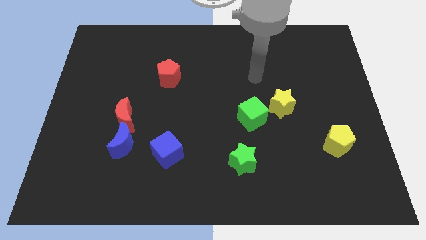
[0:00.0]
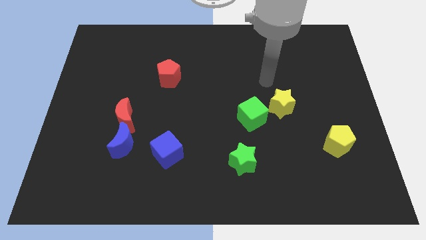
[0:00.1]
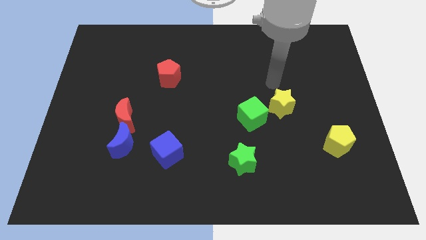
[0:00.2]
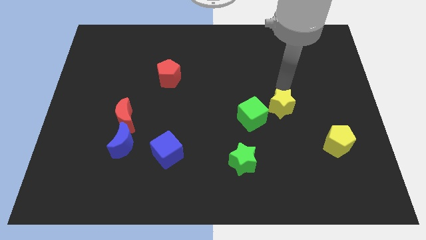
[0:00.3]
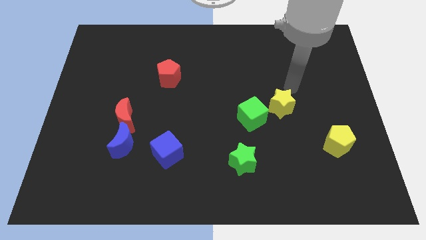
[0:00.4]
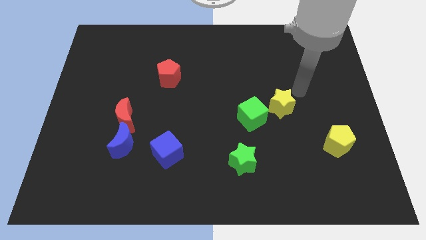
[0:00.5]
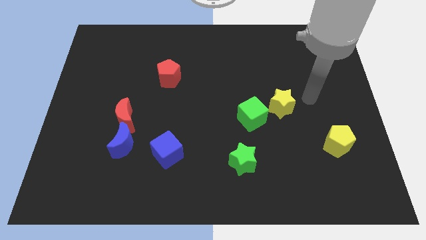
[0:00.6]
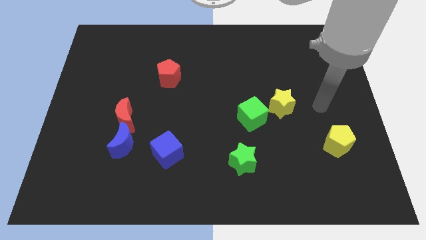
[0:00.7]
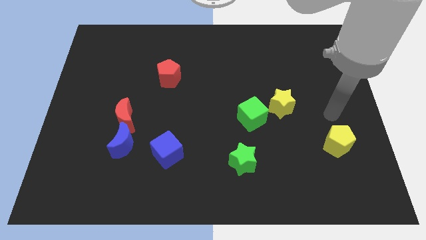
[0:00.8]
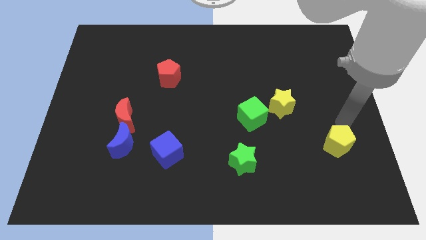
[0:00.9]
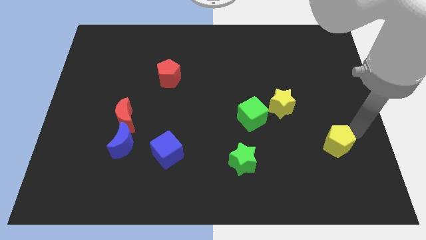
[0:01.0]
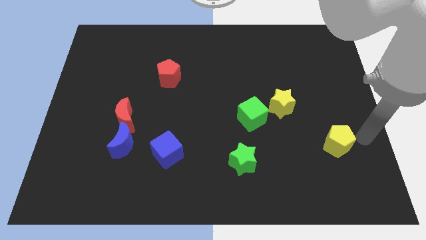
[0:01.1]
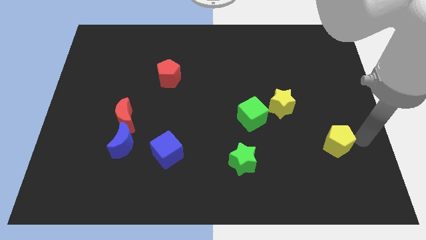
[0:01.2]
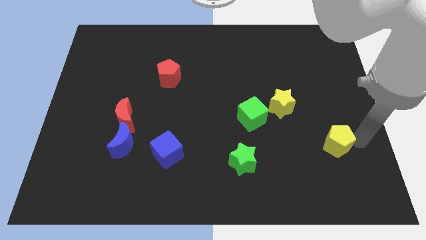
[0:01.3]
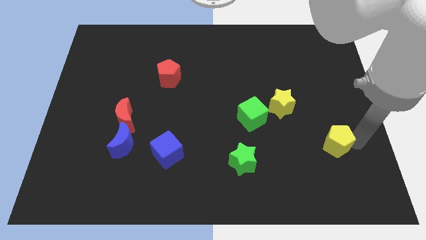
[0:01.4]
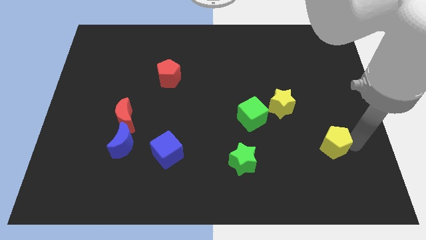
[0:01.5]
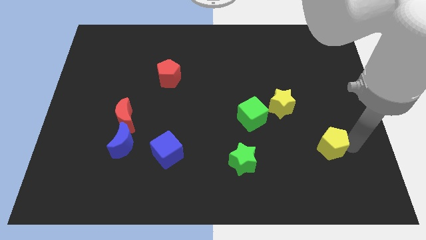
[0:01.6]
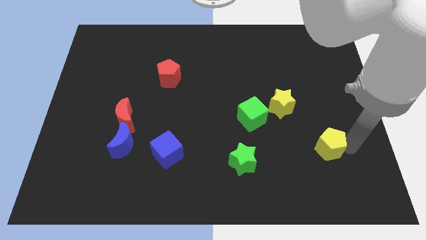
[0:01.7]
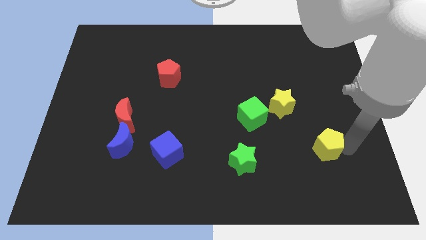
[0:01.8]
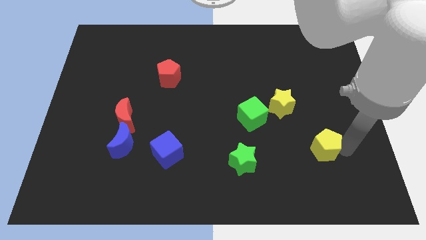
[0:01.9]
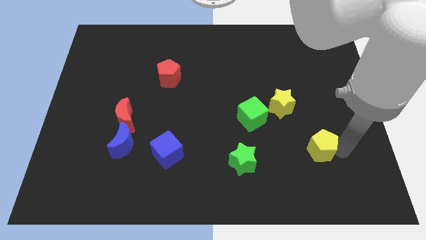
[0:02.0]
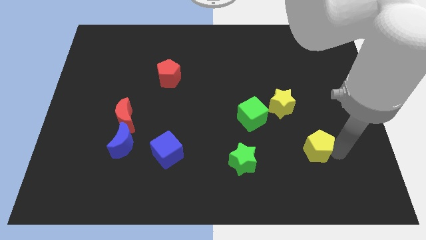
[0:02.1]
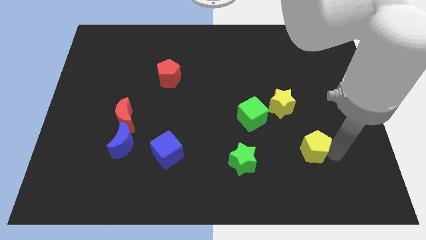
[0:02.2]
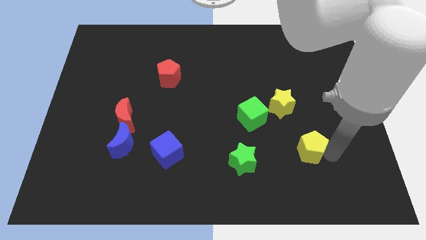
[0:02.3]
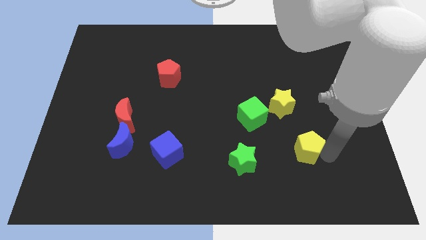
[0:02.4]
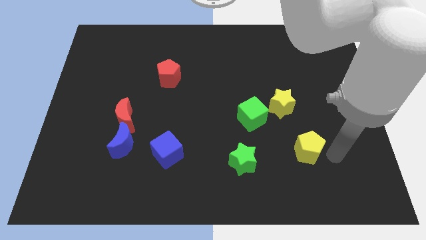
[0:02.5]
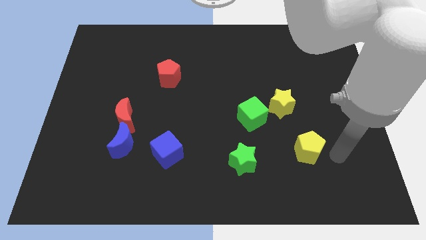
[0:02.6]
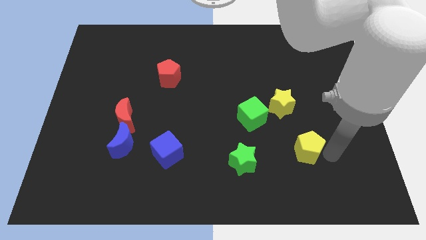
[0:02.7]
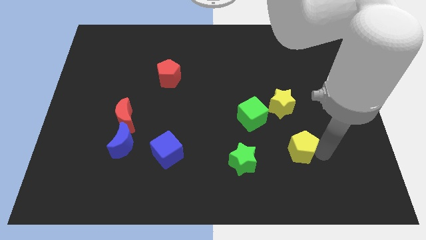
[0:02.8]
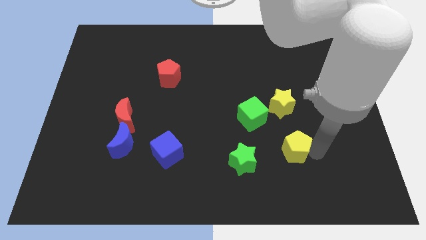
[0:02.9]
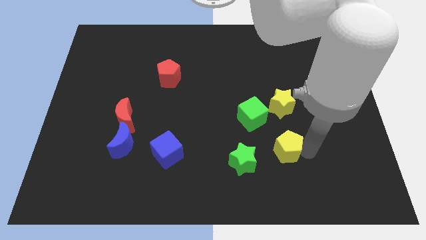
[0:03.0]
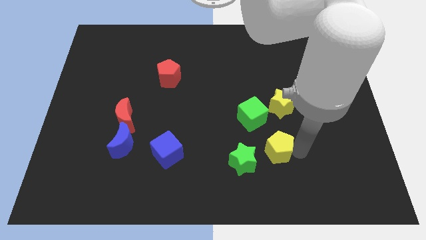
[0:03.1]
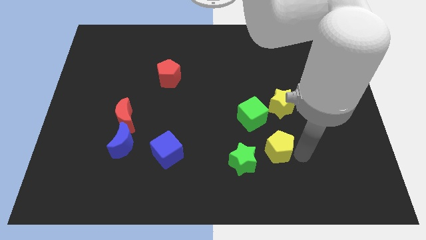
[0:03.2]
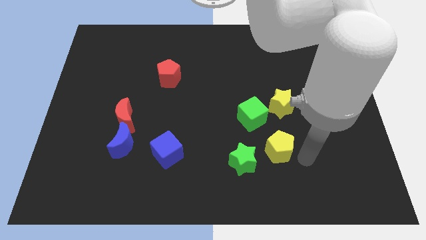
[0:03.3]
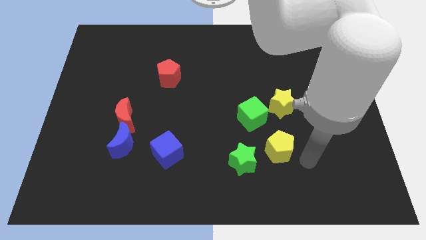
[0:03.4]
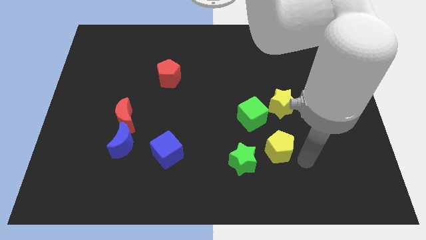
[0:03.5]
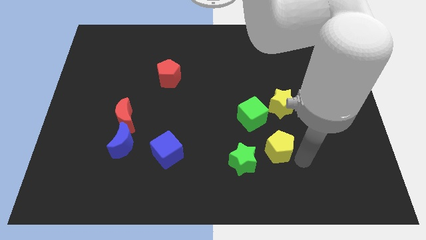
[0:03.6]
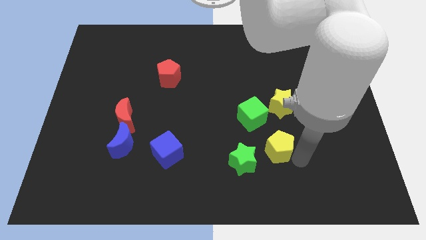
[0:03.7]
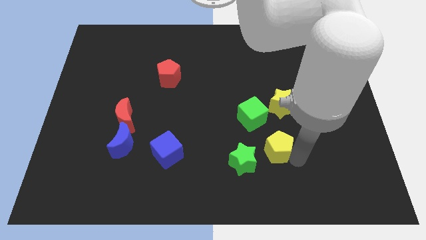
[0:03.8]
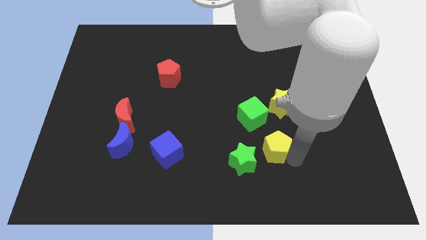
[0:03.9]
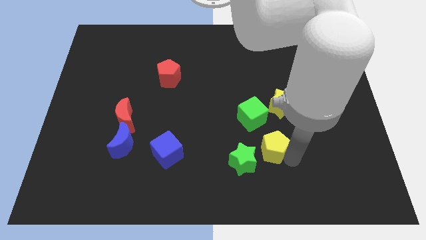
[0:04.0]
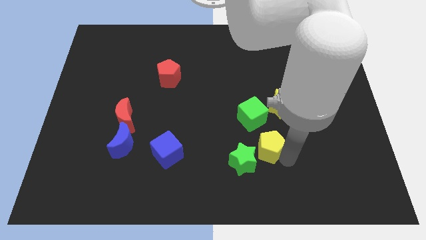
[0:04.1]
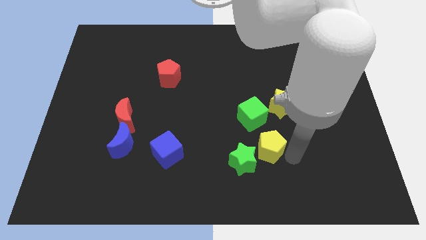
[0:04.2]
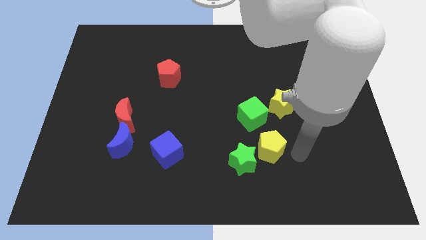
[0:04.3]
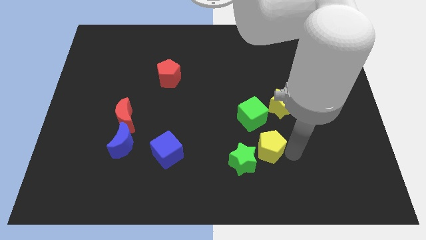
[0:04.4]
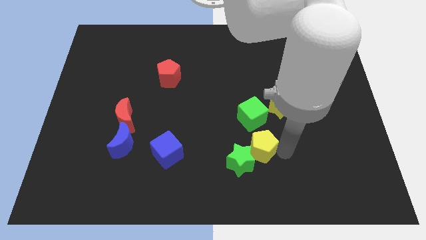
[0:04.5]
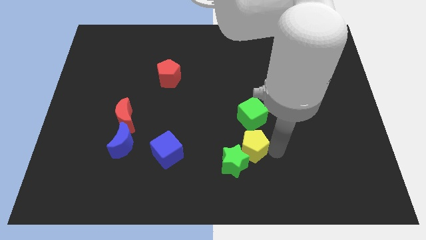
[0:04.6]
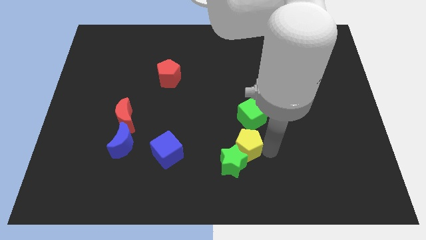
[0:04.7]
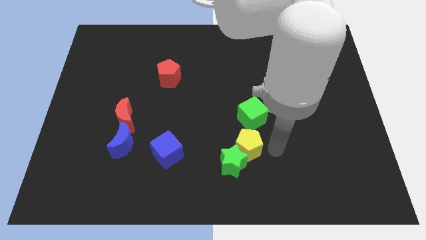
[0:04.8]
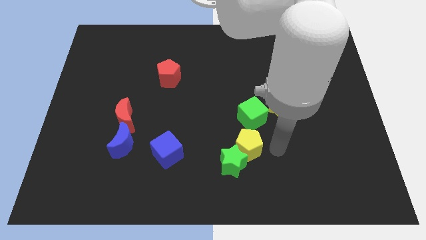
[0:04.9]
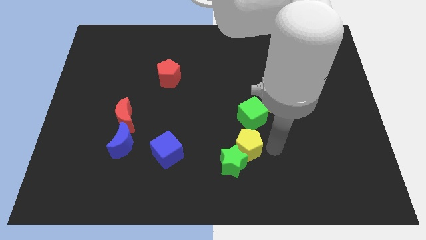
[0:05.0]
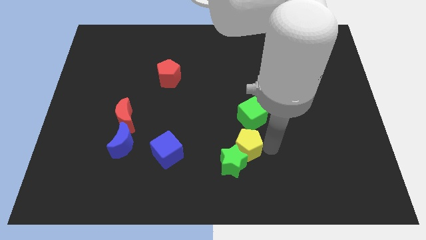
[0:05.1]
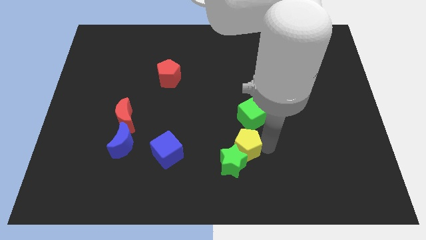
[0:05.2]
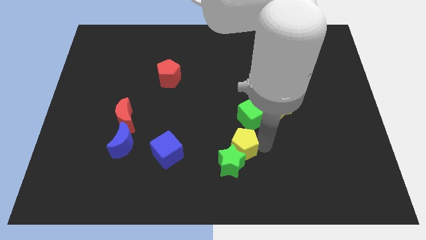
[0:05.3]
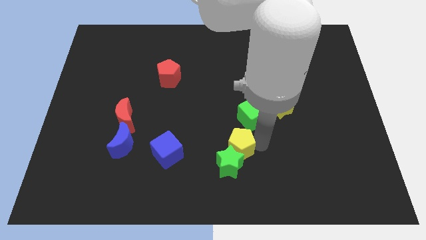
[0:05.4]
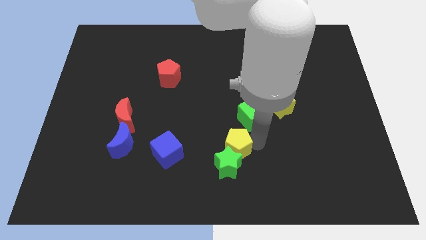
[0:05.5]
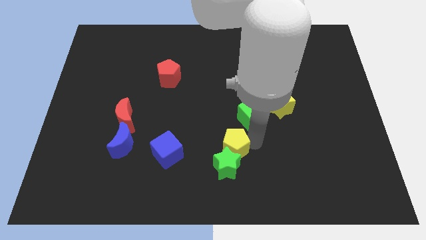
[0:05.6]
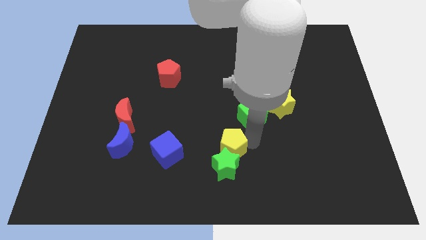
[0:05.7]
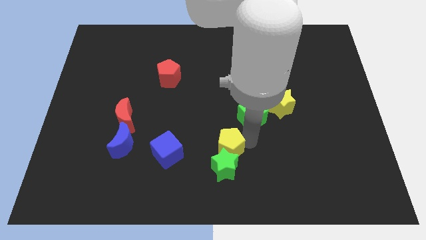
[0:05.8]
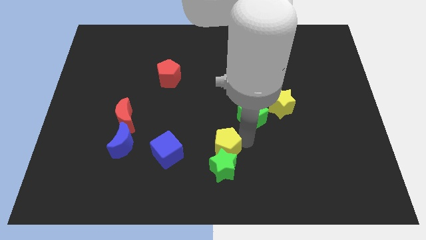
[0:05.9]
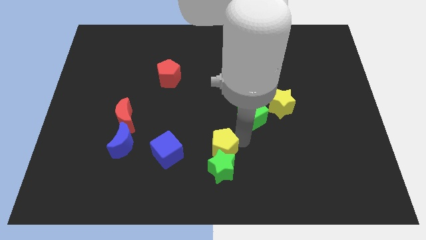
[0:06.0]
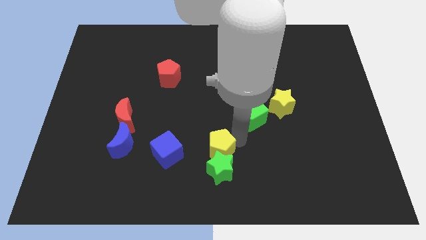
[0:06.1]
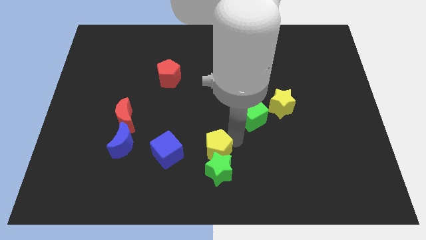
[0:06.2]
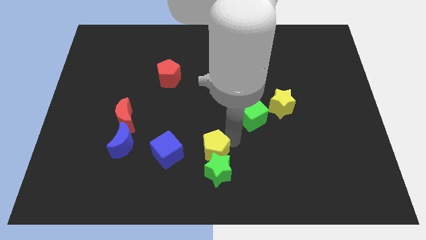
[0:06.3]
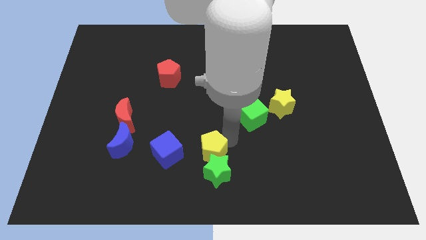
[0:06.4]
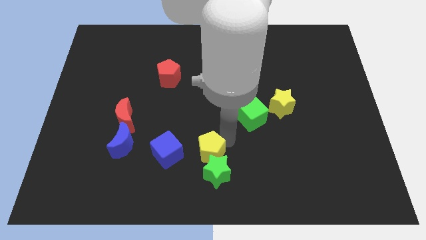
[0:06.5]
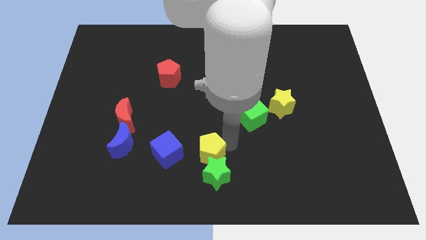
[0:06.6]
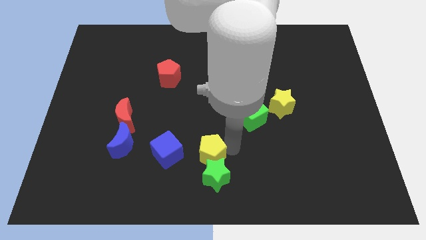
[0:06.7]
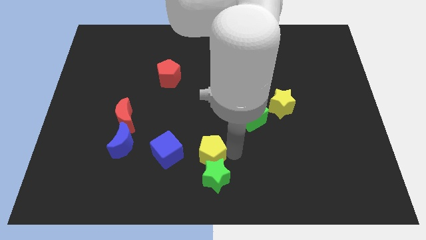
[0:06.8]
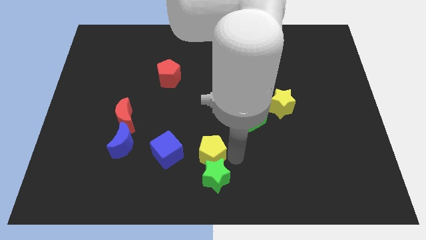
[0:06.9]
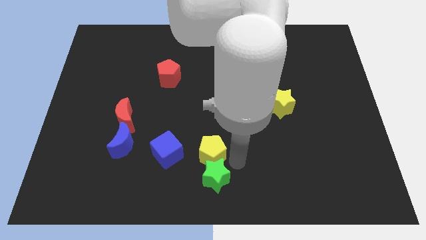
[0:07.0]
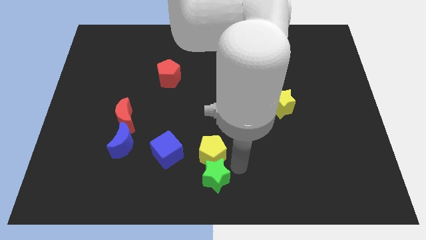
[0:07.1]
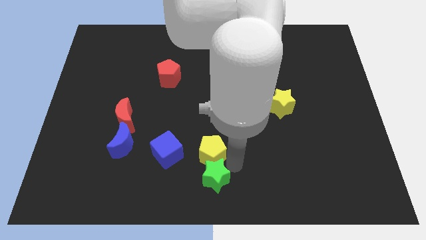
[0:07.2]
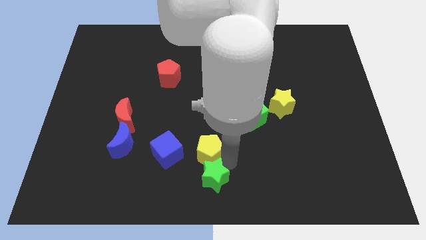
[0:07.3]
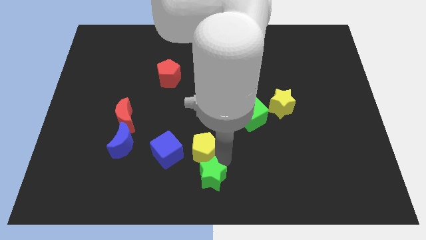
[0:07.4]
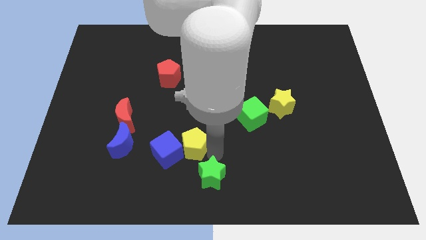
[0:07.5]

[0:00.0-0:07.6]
slide the yellow pentagon close to the blue cube

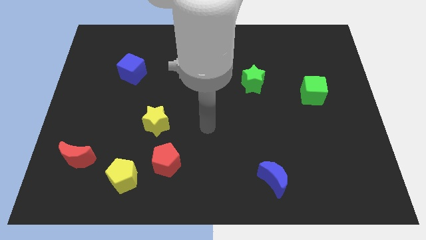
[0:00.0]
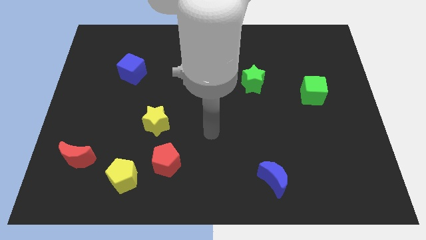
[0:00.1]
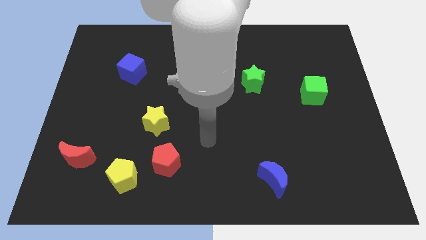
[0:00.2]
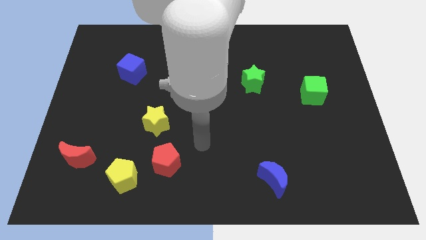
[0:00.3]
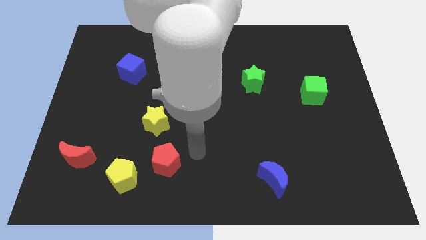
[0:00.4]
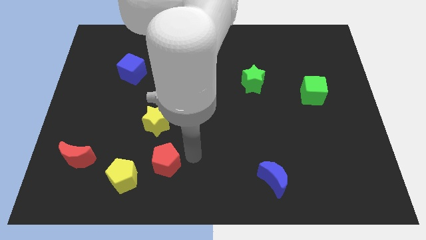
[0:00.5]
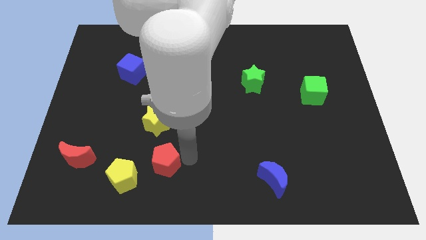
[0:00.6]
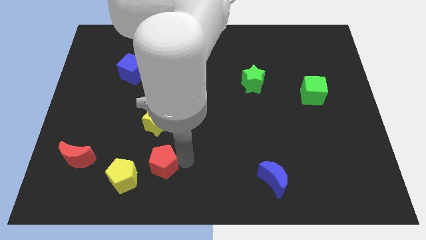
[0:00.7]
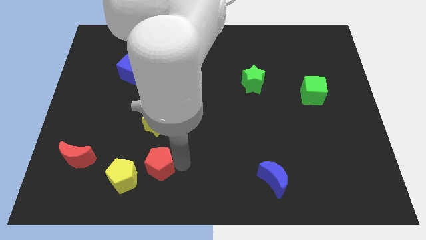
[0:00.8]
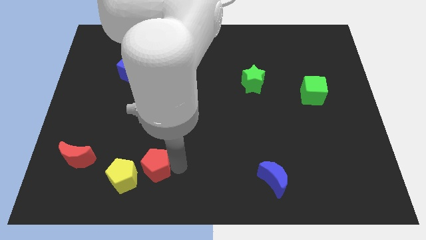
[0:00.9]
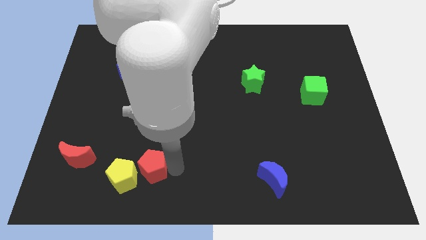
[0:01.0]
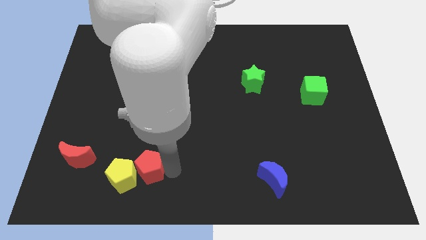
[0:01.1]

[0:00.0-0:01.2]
put the red pentagon close to the yellow pentagon
